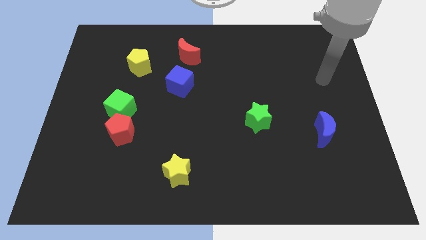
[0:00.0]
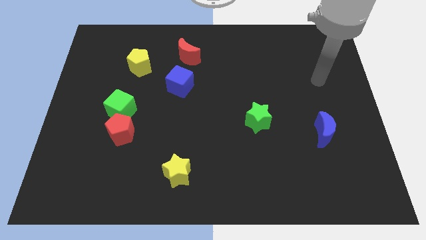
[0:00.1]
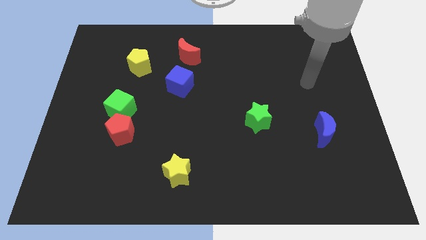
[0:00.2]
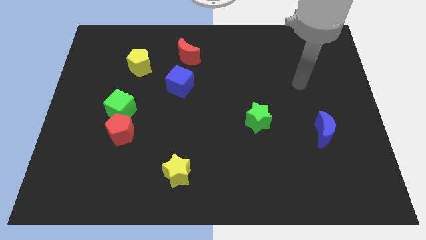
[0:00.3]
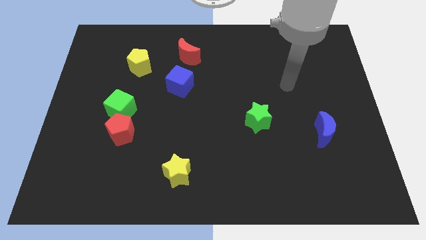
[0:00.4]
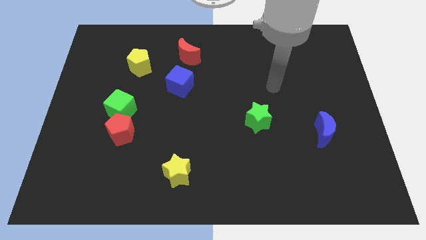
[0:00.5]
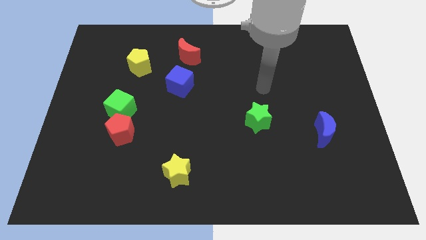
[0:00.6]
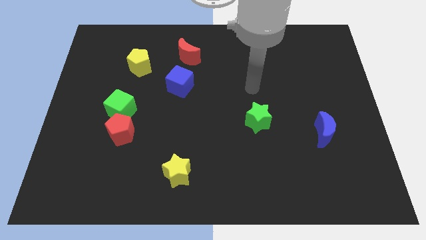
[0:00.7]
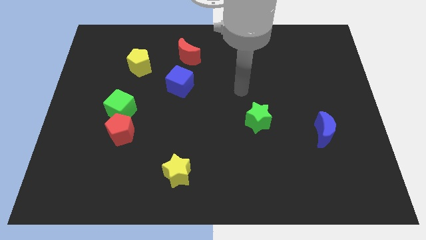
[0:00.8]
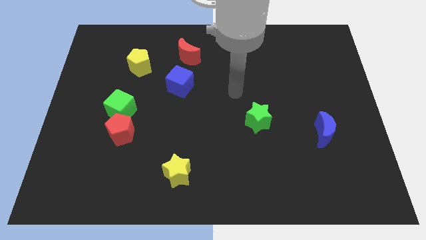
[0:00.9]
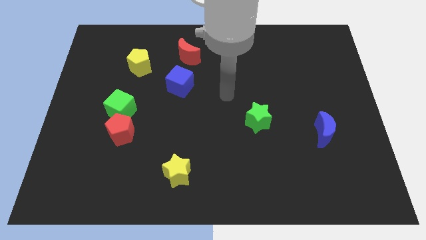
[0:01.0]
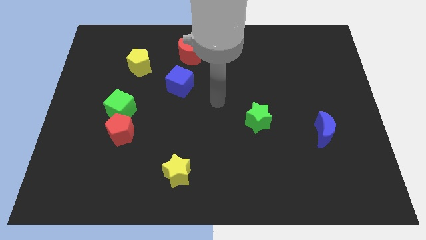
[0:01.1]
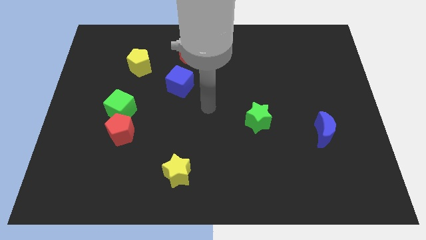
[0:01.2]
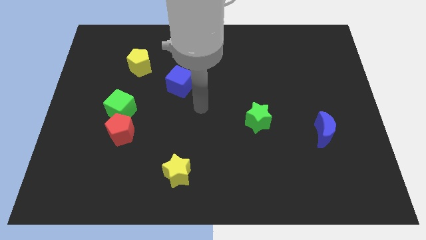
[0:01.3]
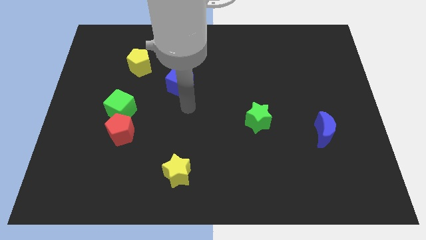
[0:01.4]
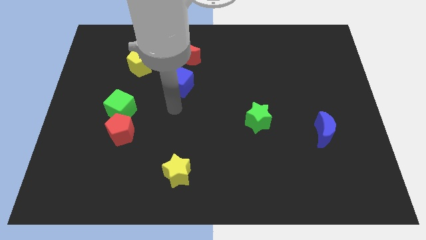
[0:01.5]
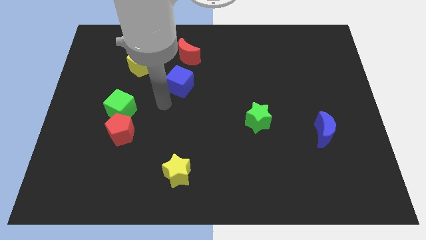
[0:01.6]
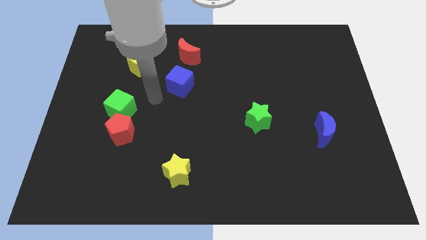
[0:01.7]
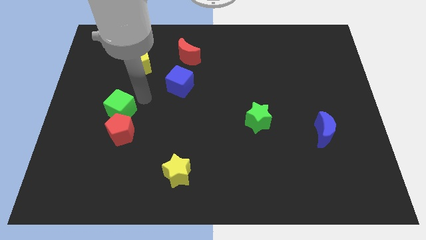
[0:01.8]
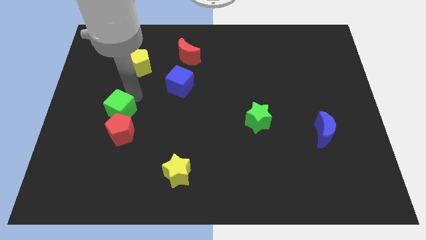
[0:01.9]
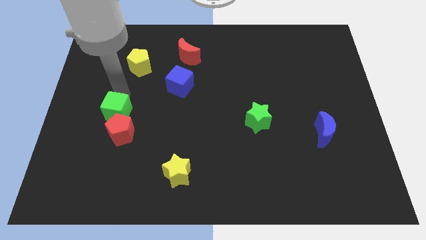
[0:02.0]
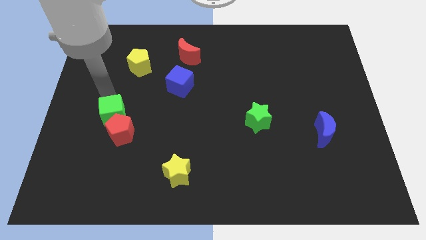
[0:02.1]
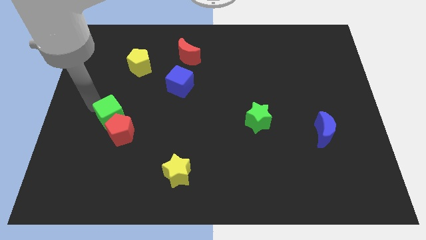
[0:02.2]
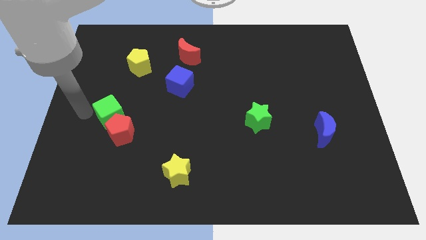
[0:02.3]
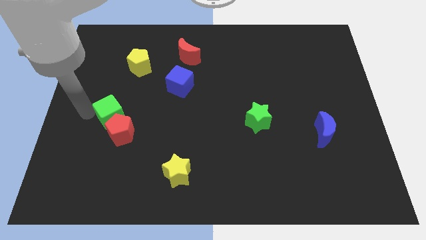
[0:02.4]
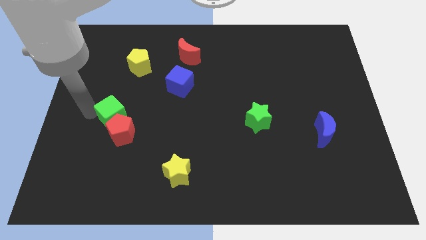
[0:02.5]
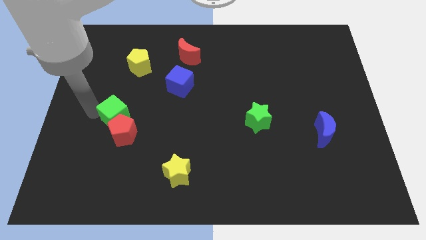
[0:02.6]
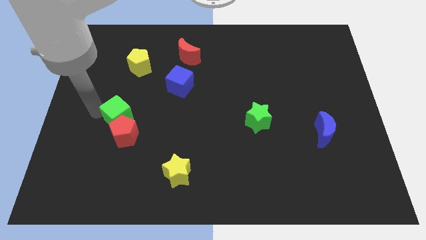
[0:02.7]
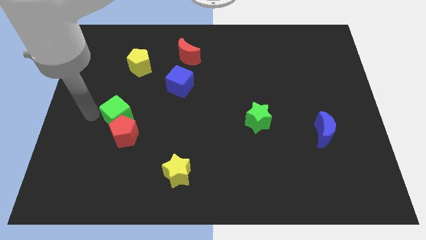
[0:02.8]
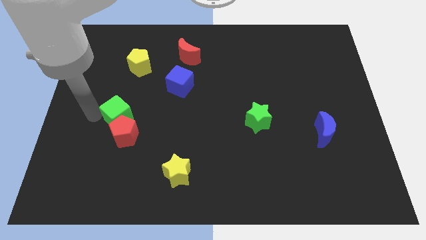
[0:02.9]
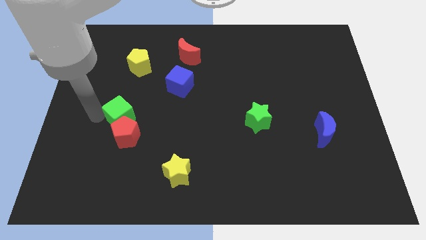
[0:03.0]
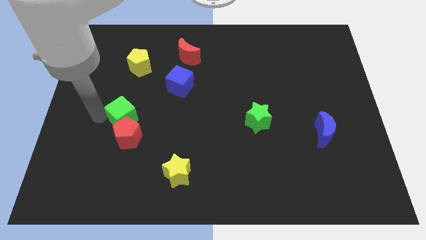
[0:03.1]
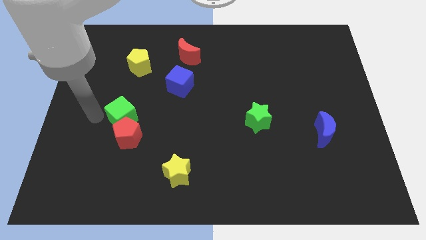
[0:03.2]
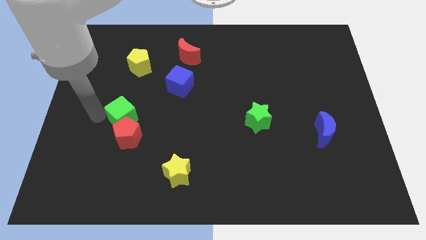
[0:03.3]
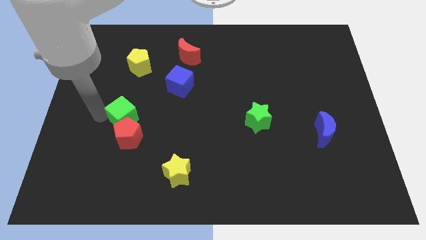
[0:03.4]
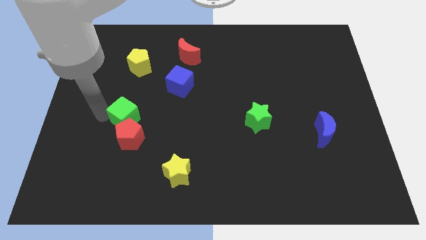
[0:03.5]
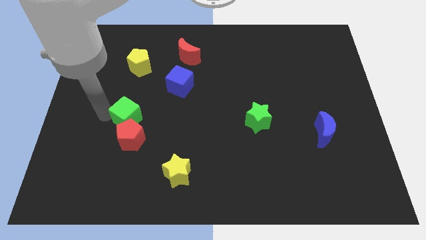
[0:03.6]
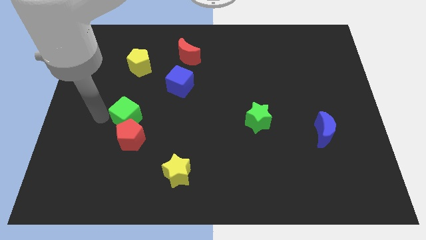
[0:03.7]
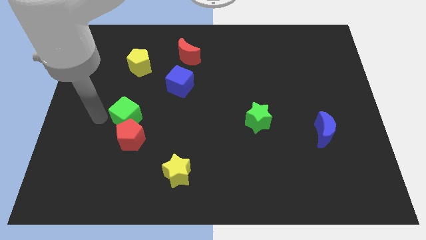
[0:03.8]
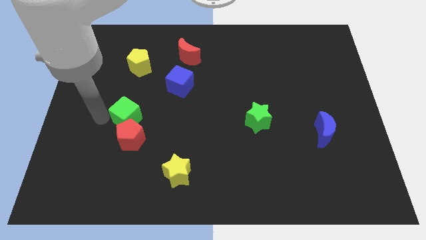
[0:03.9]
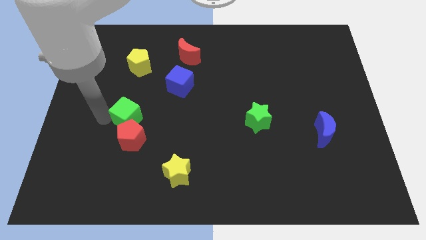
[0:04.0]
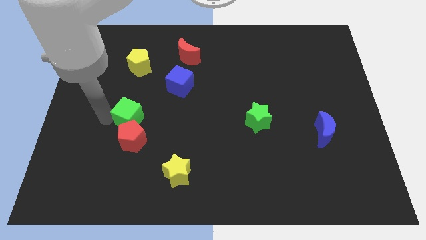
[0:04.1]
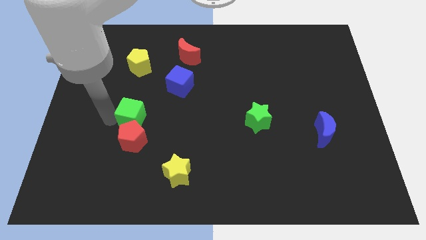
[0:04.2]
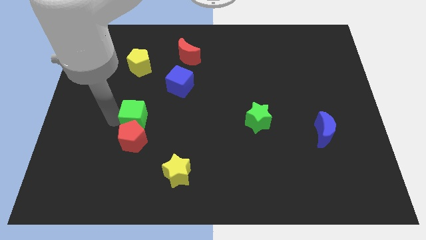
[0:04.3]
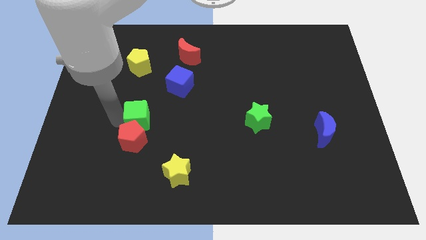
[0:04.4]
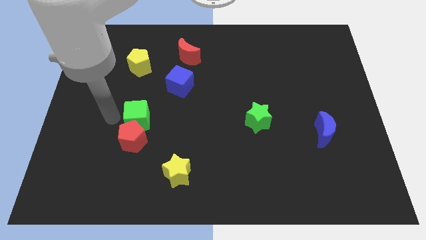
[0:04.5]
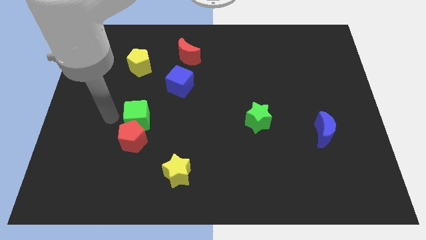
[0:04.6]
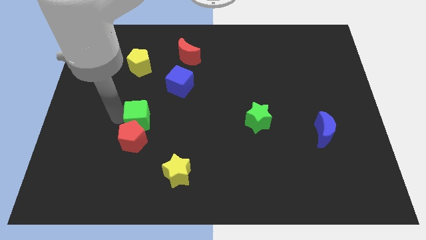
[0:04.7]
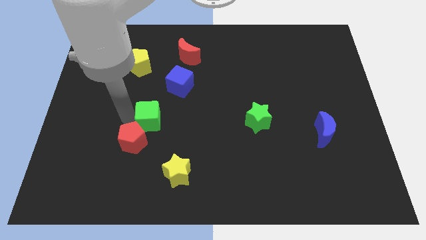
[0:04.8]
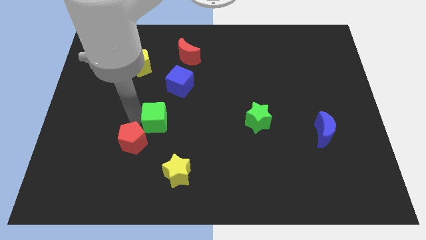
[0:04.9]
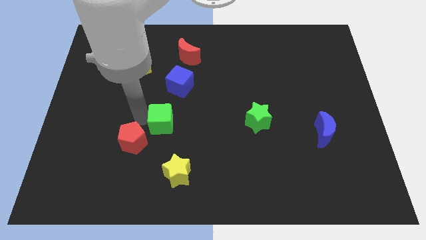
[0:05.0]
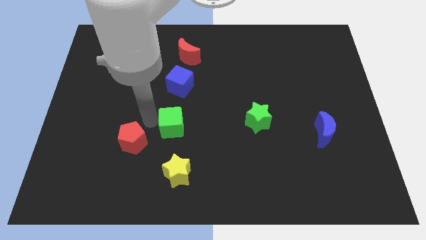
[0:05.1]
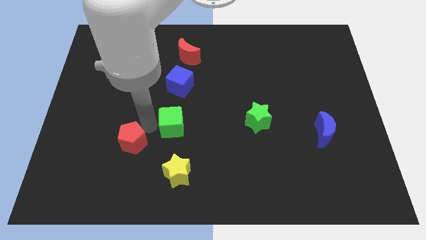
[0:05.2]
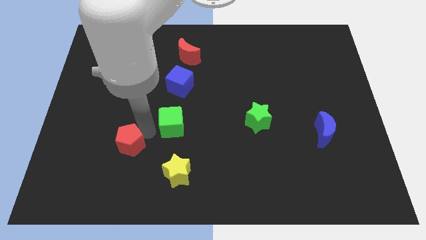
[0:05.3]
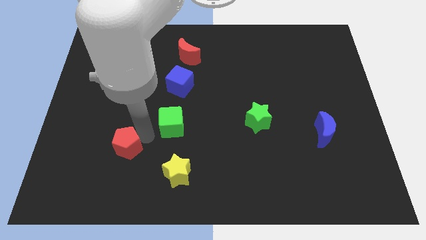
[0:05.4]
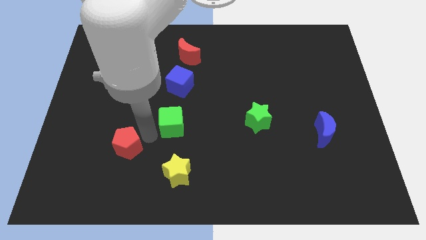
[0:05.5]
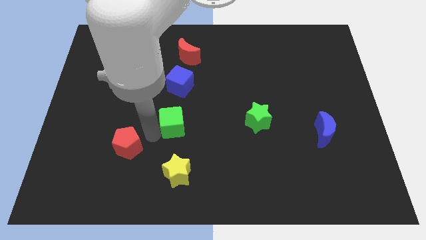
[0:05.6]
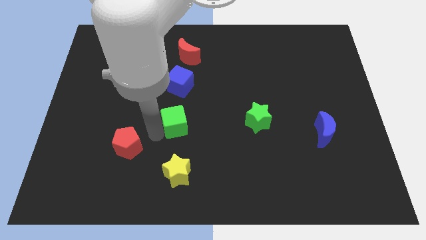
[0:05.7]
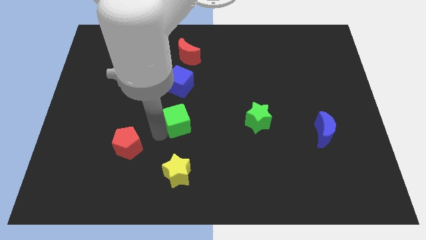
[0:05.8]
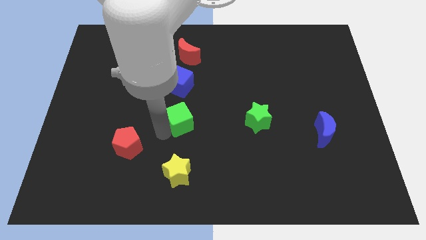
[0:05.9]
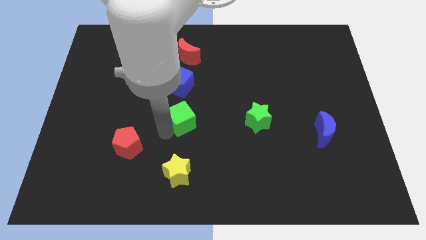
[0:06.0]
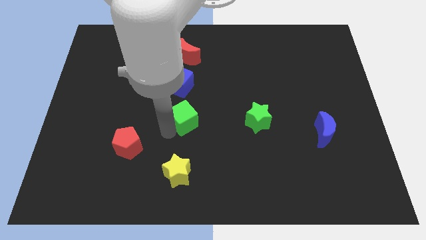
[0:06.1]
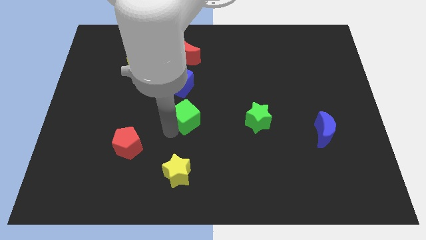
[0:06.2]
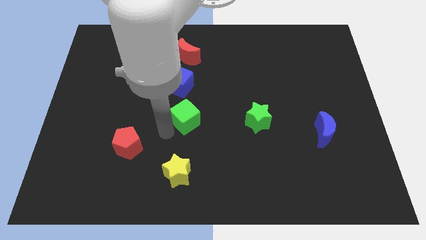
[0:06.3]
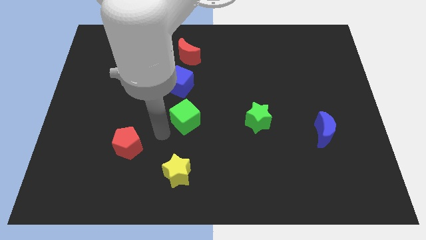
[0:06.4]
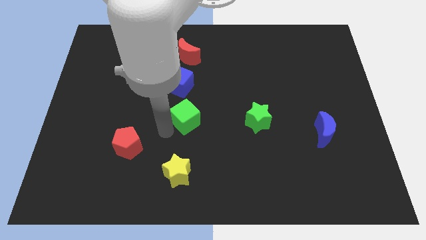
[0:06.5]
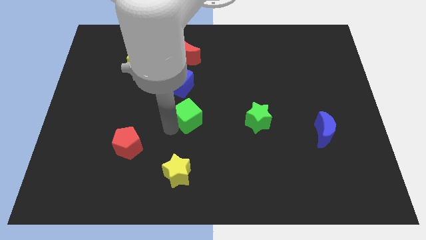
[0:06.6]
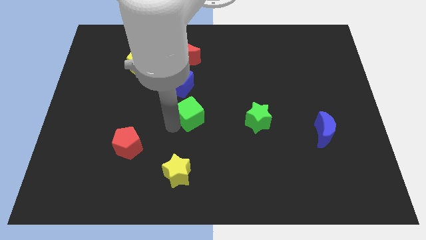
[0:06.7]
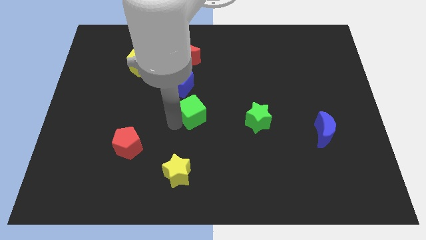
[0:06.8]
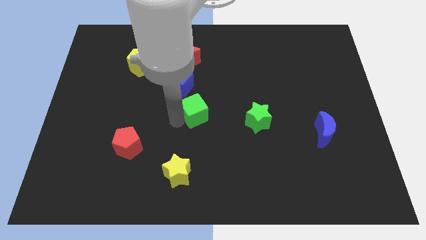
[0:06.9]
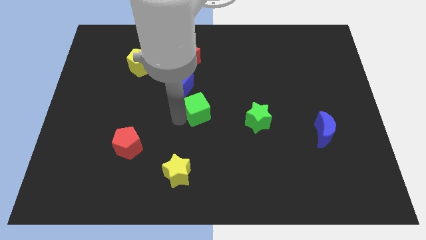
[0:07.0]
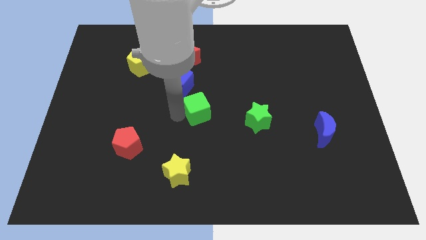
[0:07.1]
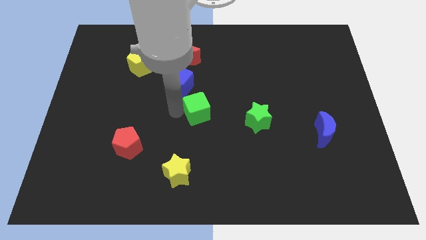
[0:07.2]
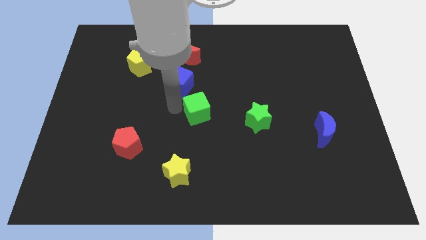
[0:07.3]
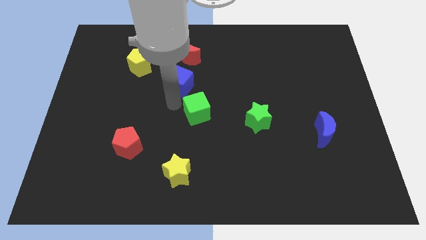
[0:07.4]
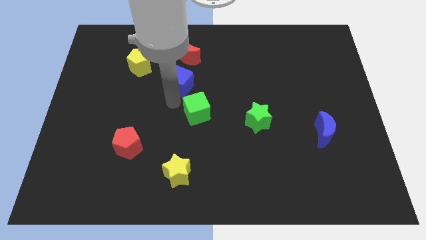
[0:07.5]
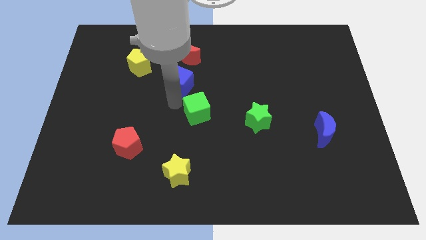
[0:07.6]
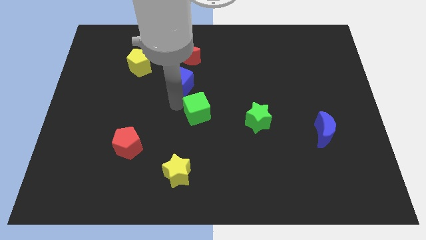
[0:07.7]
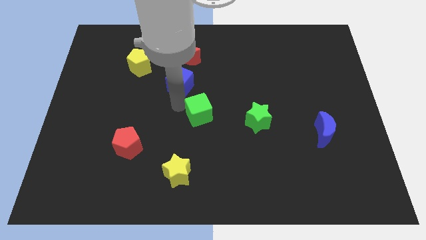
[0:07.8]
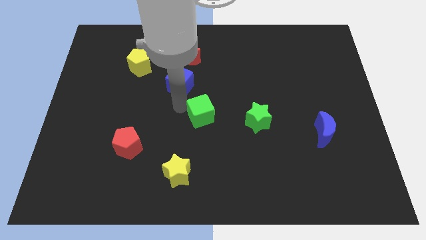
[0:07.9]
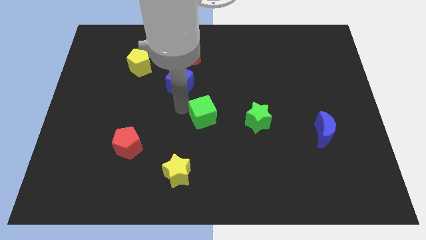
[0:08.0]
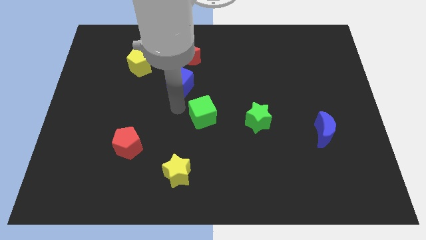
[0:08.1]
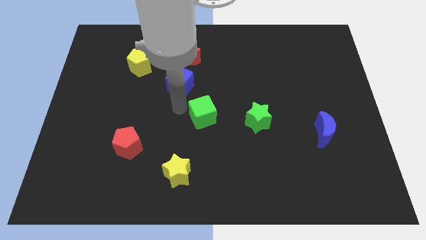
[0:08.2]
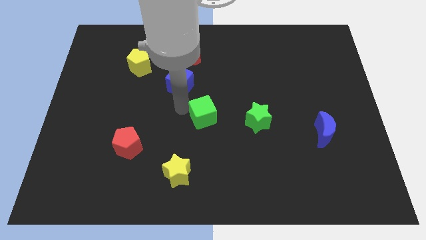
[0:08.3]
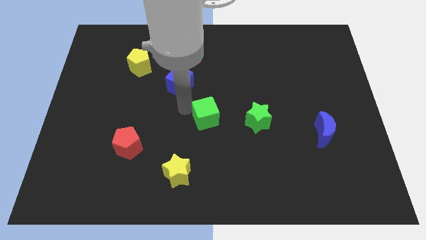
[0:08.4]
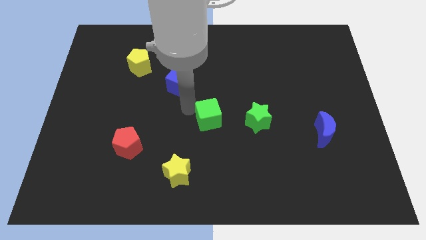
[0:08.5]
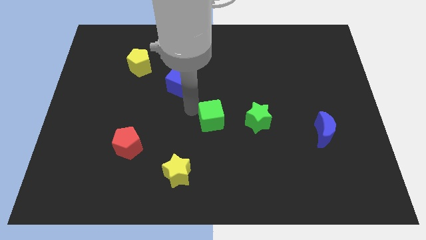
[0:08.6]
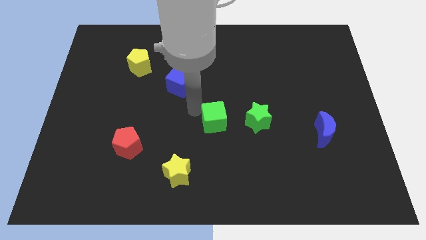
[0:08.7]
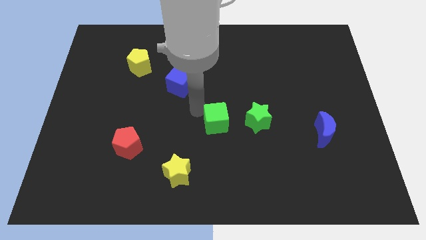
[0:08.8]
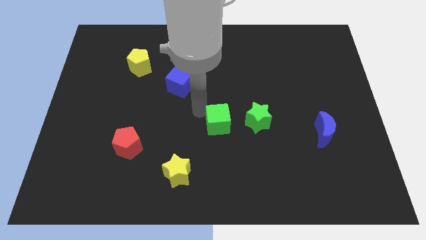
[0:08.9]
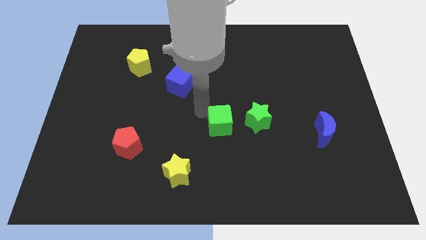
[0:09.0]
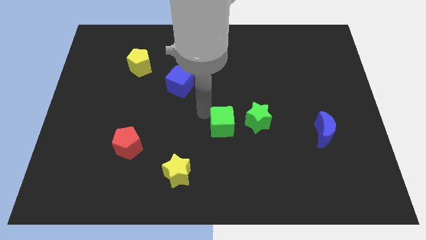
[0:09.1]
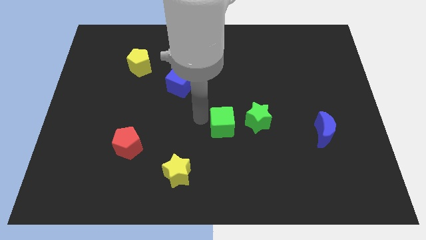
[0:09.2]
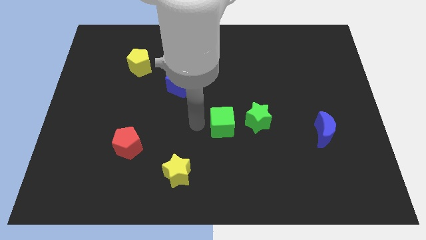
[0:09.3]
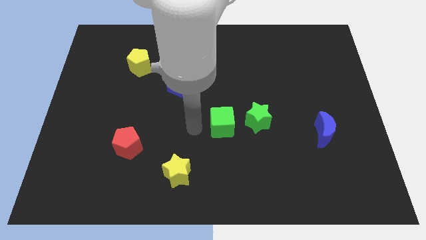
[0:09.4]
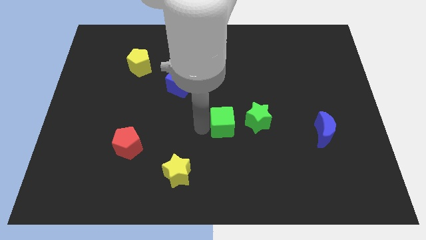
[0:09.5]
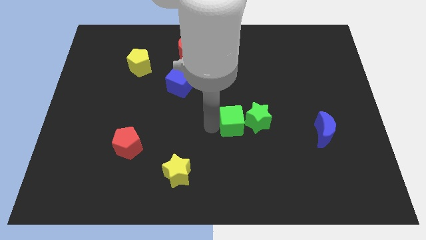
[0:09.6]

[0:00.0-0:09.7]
push the green cube towards the green star
